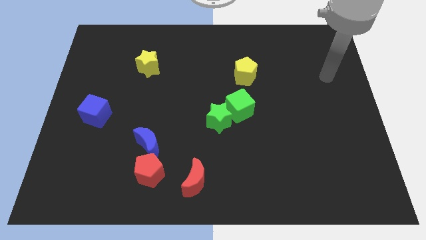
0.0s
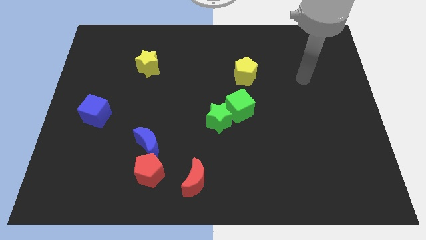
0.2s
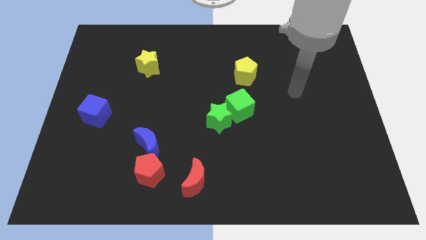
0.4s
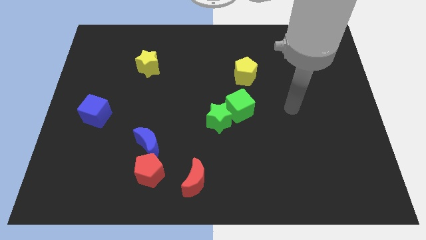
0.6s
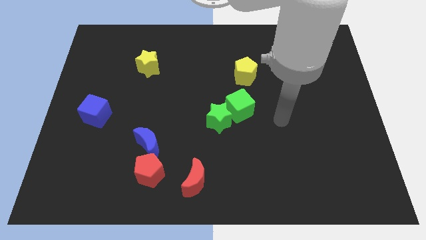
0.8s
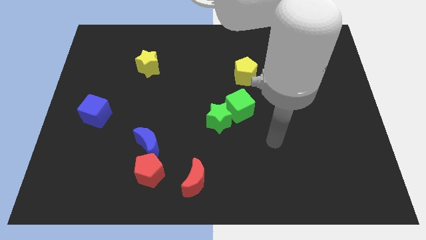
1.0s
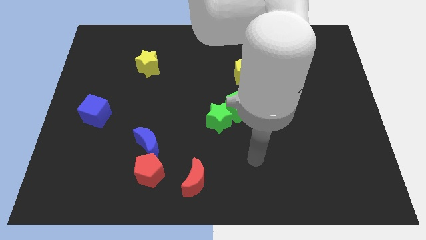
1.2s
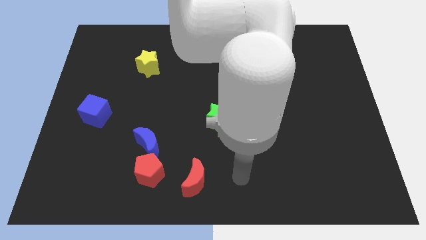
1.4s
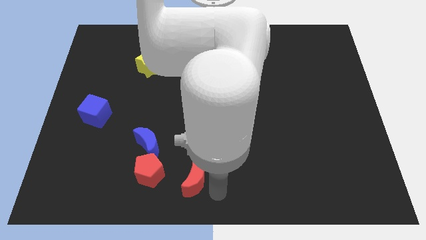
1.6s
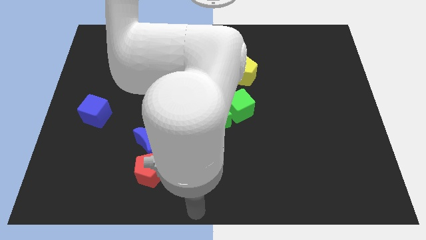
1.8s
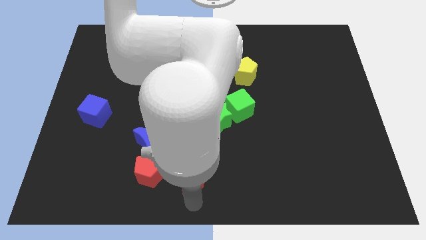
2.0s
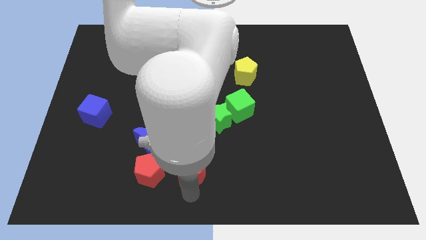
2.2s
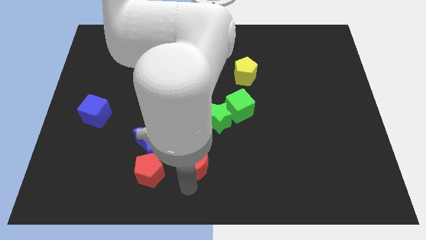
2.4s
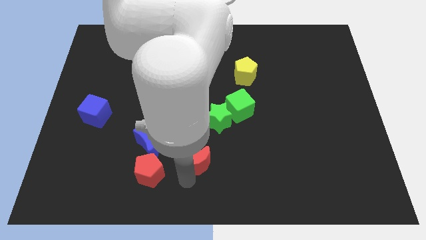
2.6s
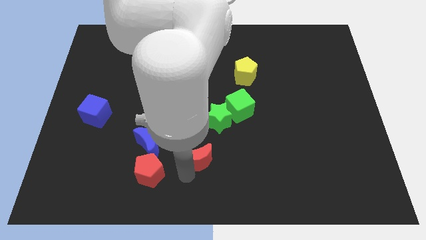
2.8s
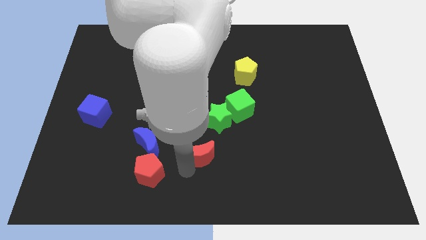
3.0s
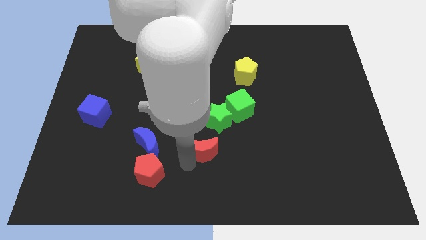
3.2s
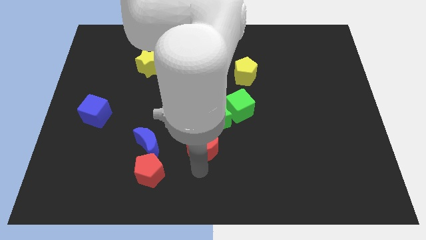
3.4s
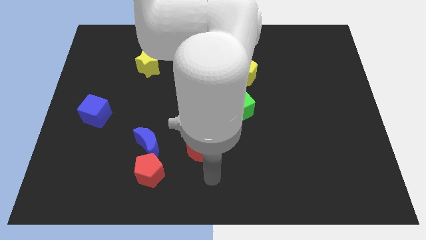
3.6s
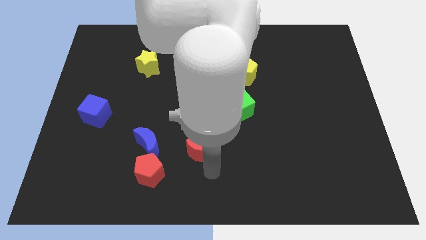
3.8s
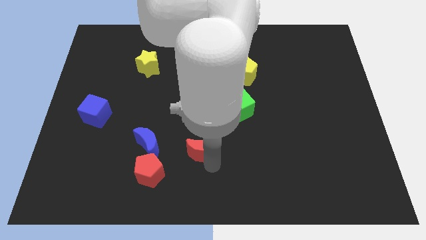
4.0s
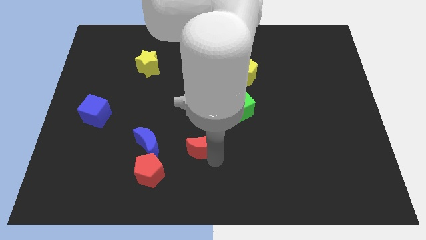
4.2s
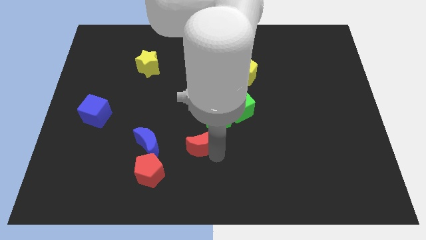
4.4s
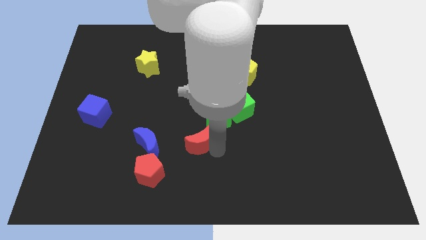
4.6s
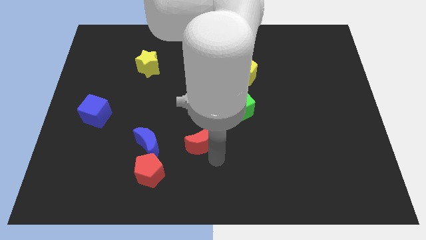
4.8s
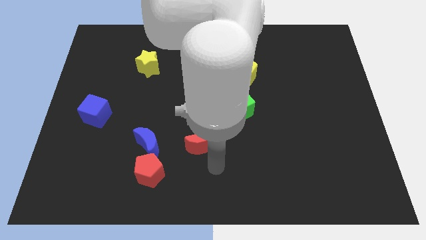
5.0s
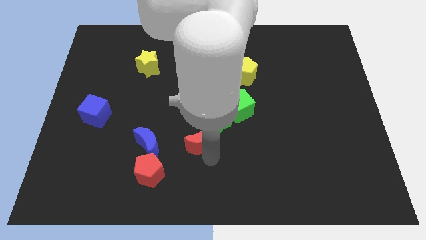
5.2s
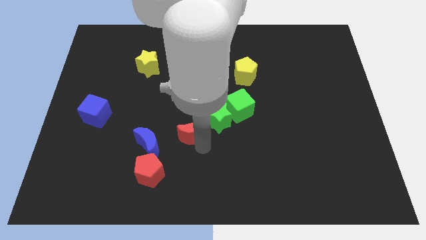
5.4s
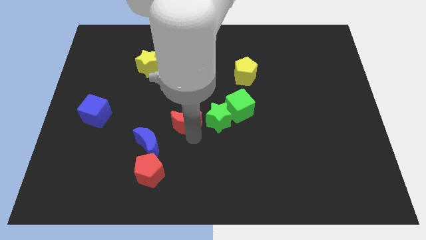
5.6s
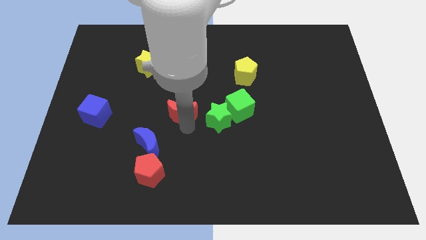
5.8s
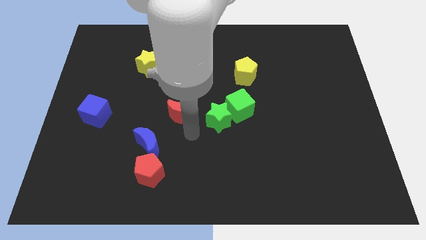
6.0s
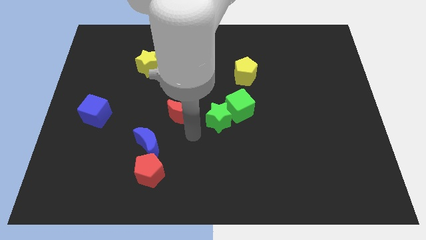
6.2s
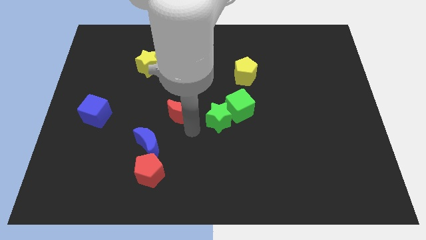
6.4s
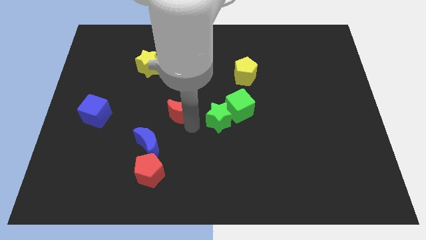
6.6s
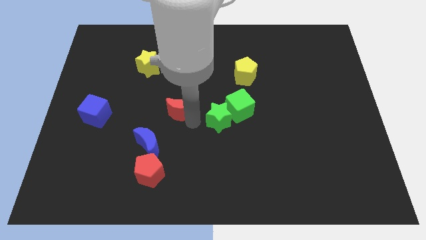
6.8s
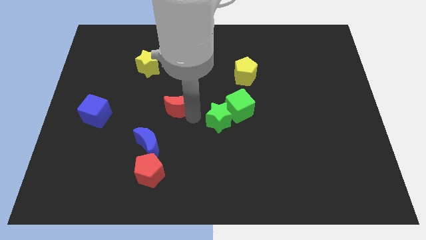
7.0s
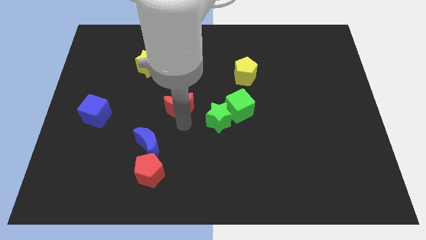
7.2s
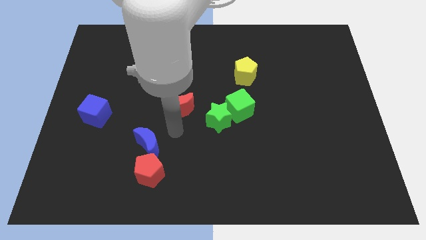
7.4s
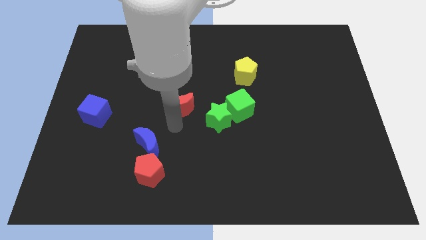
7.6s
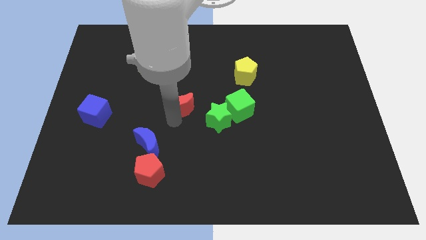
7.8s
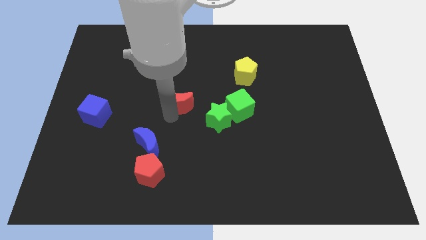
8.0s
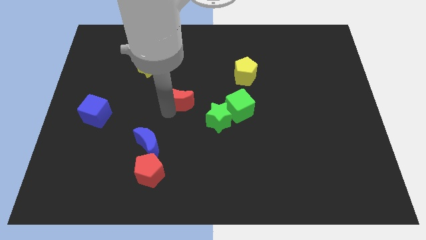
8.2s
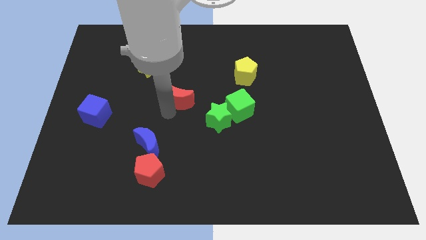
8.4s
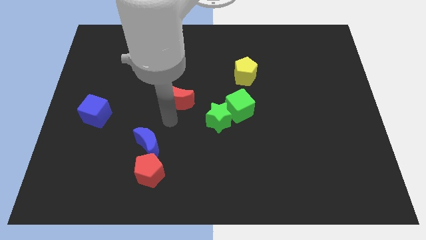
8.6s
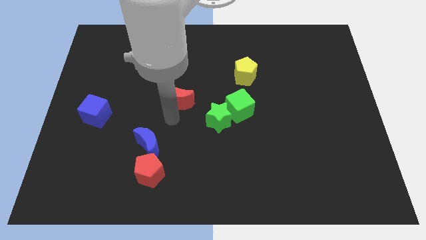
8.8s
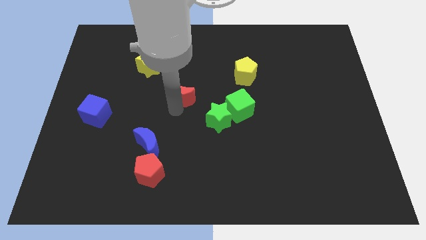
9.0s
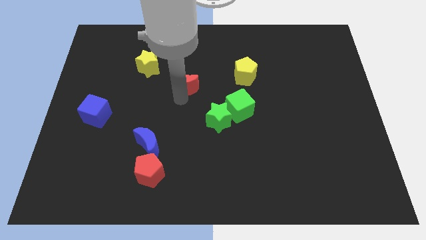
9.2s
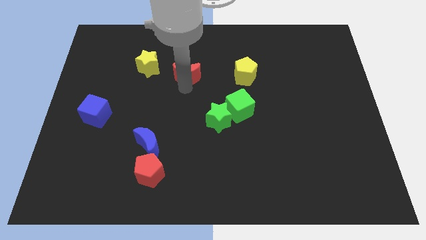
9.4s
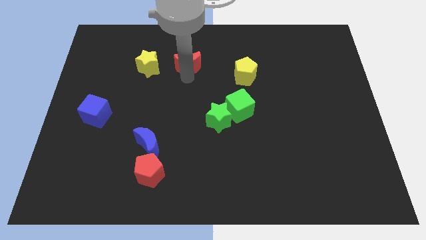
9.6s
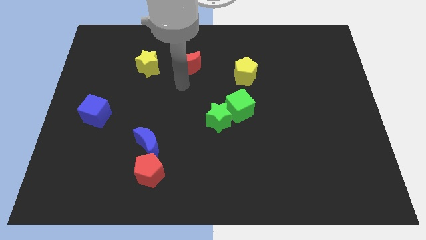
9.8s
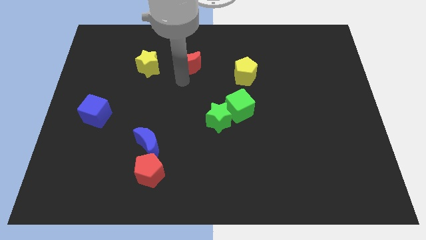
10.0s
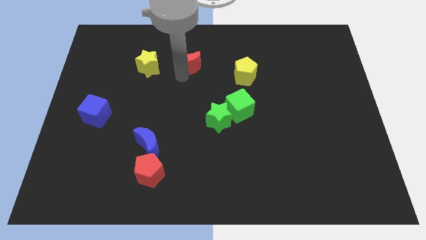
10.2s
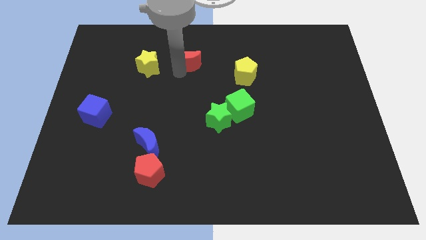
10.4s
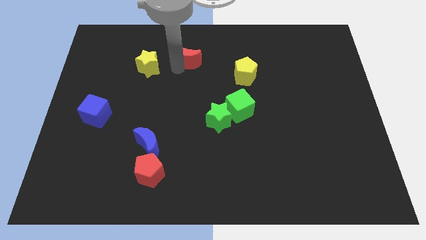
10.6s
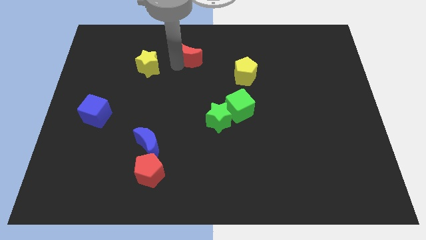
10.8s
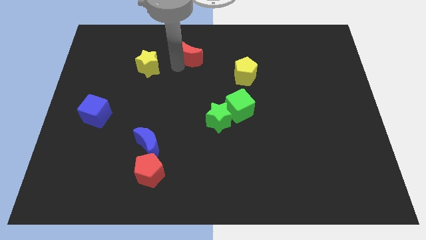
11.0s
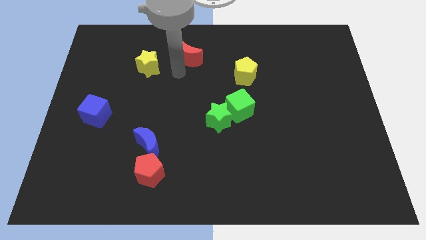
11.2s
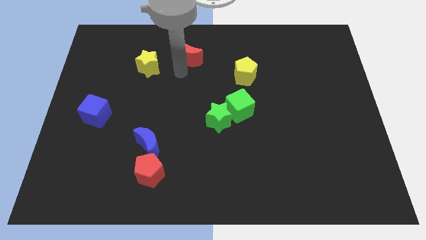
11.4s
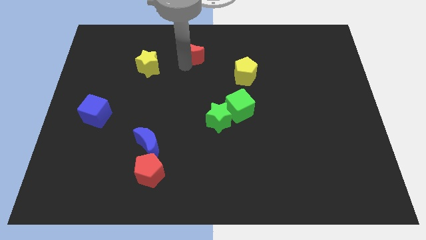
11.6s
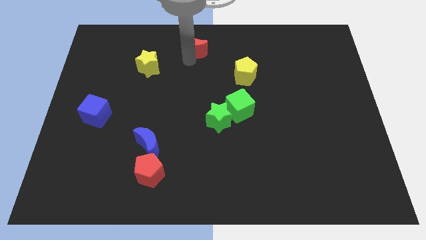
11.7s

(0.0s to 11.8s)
put the red moon to the top
